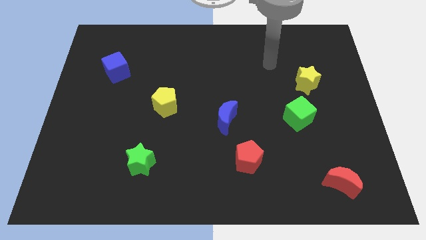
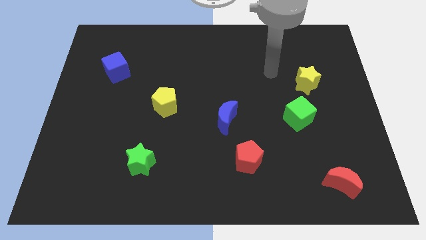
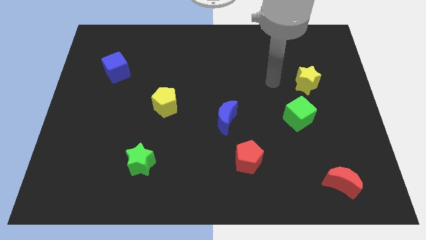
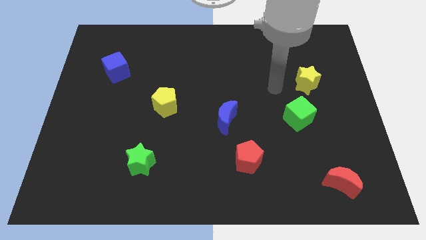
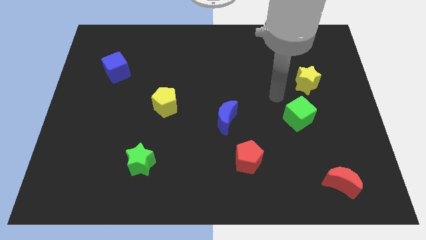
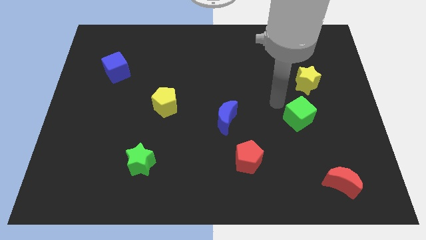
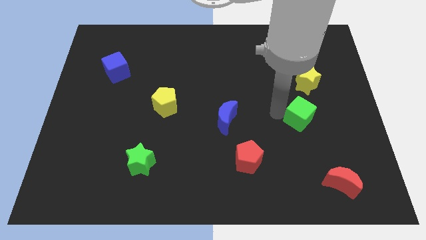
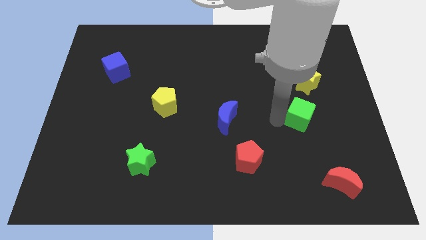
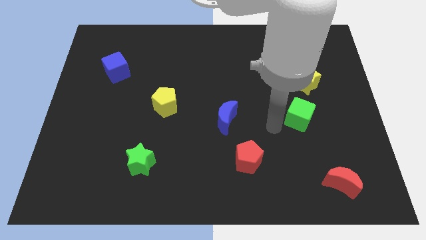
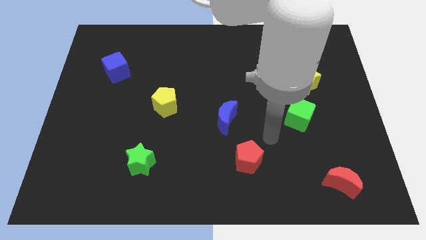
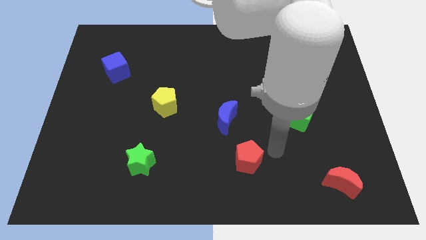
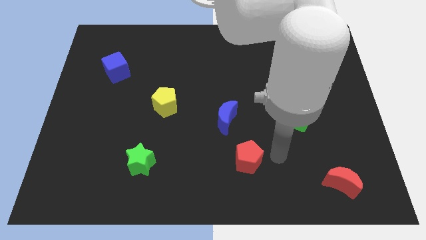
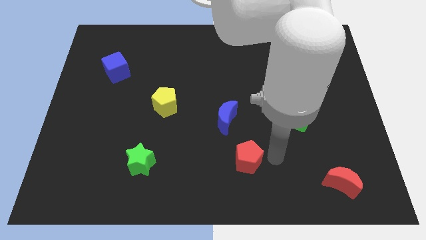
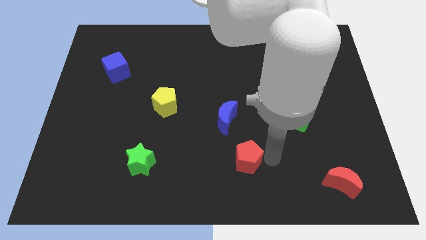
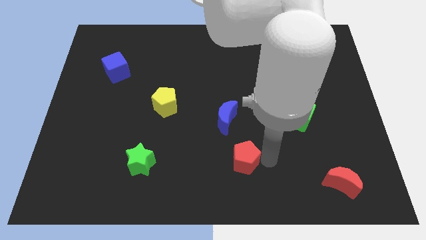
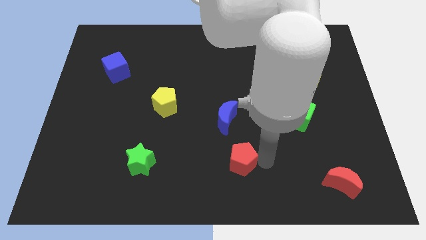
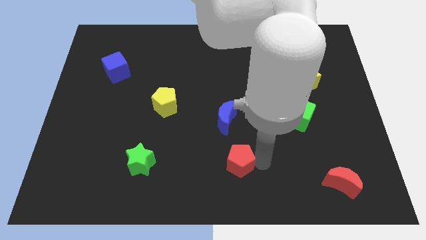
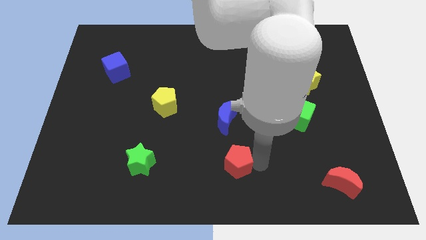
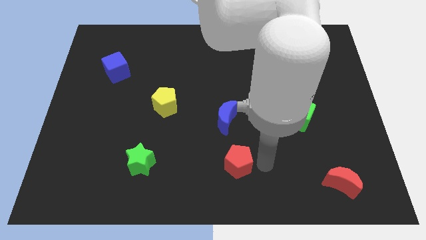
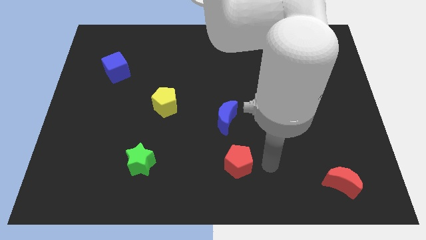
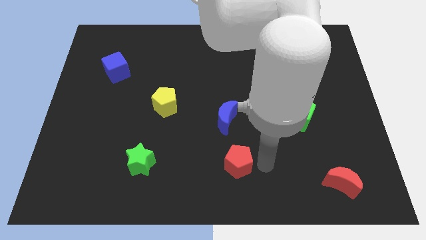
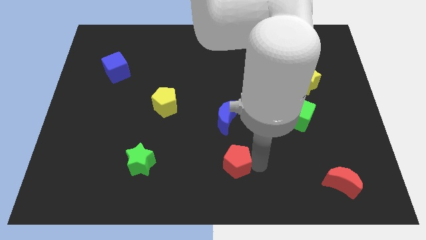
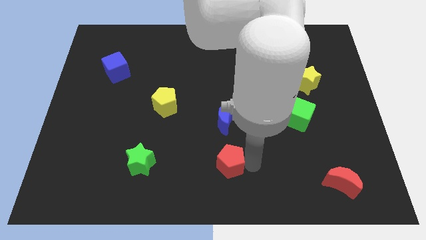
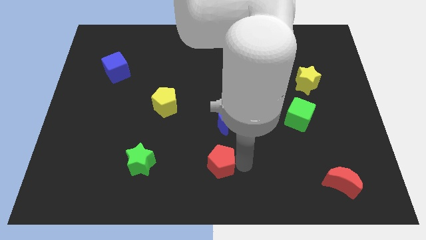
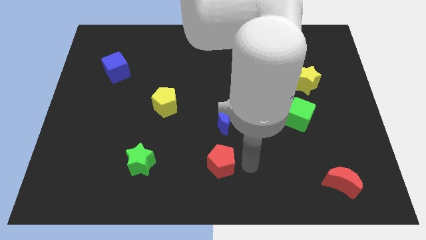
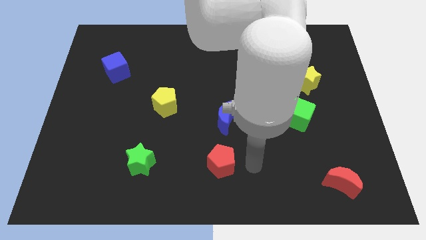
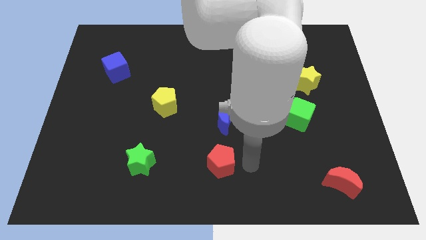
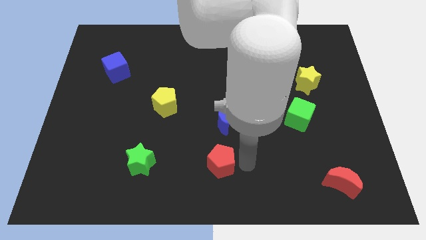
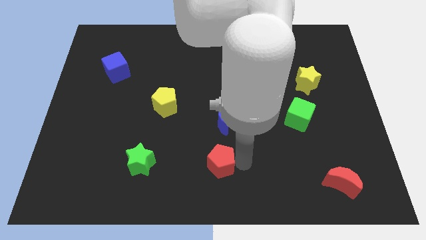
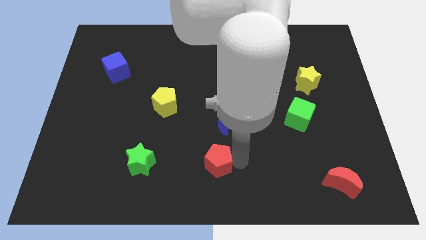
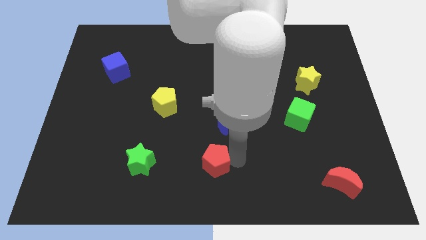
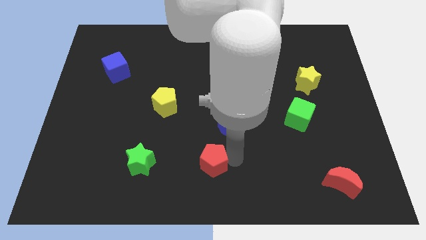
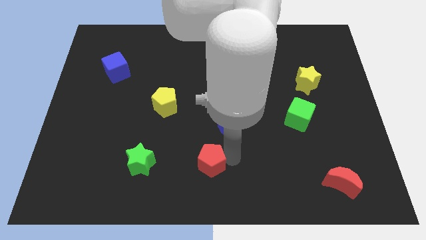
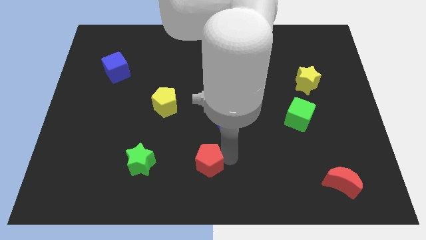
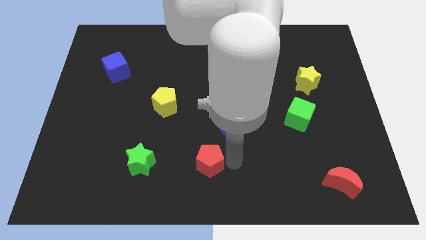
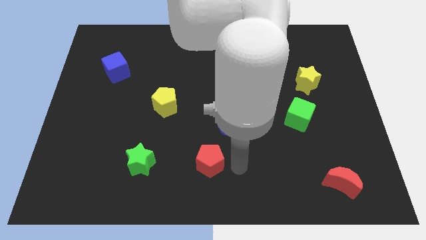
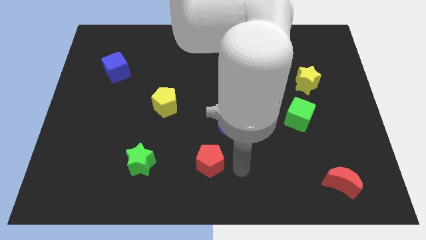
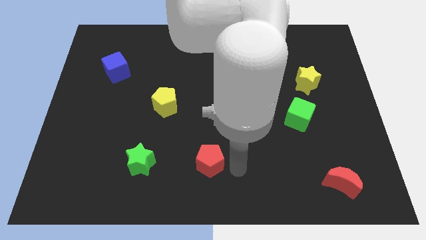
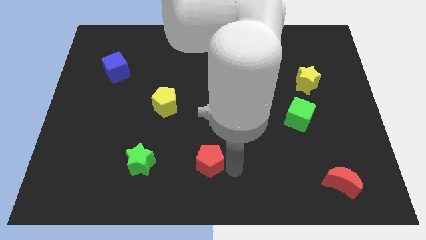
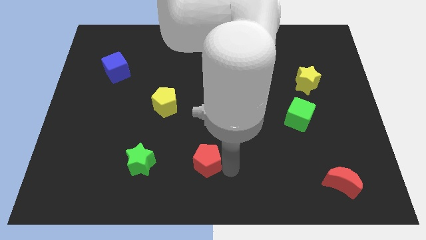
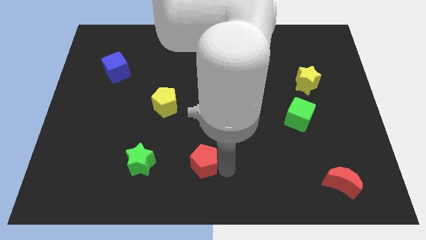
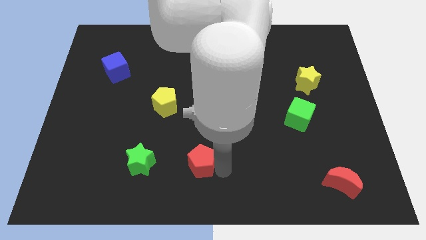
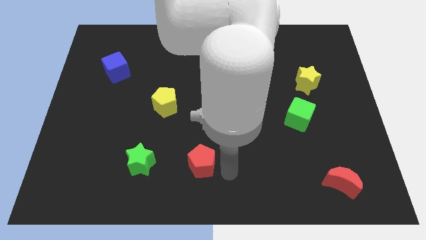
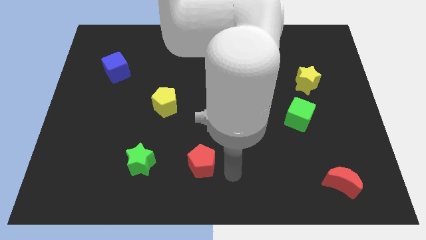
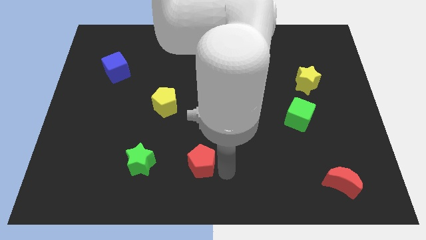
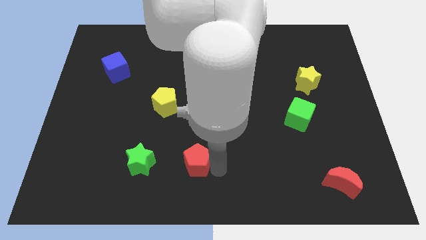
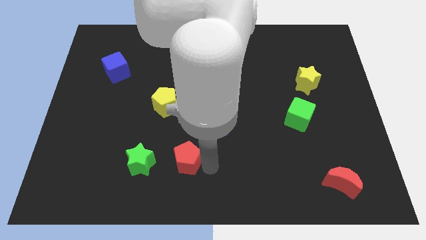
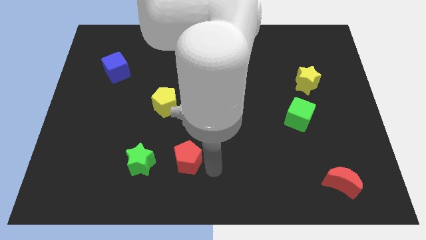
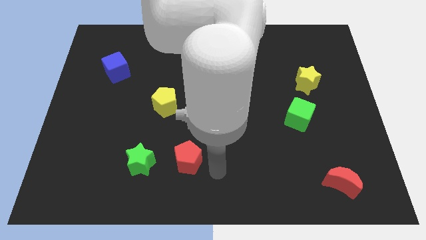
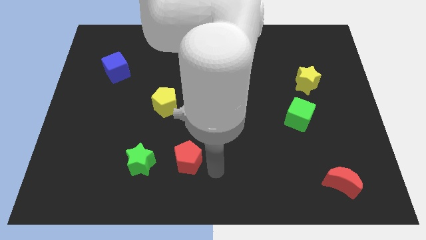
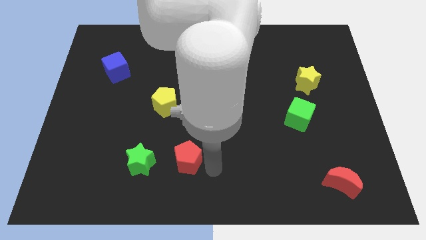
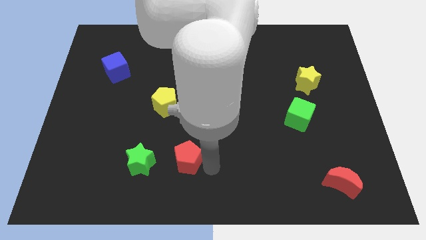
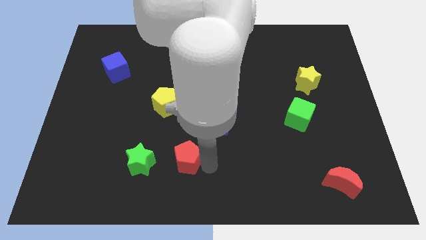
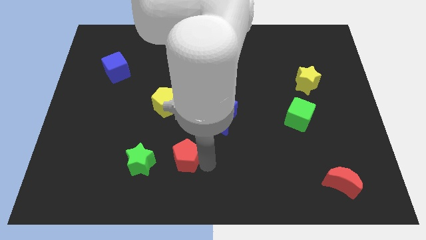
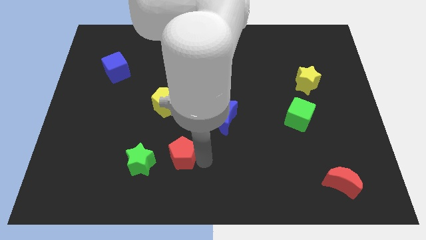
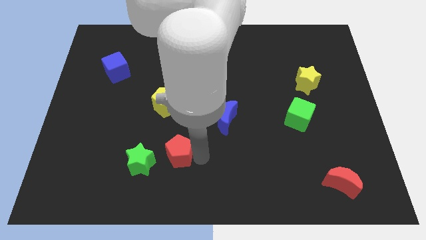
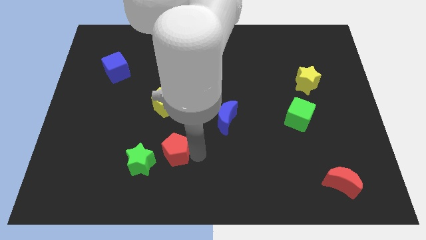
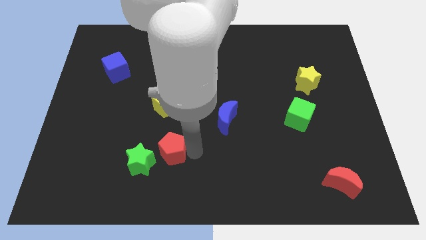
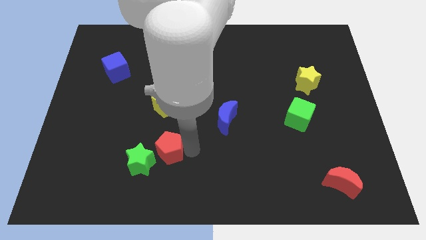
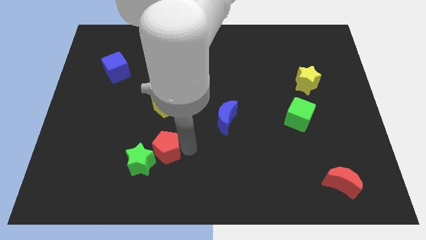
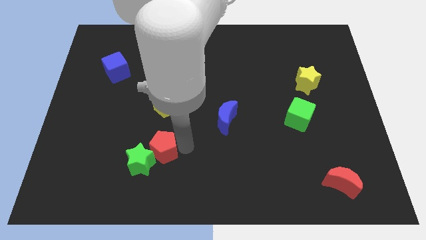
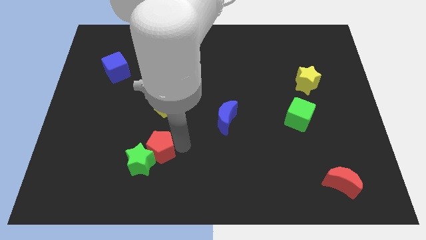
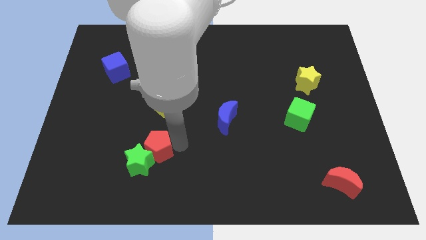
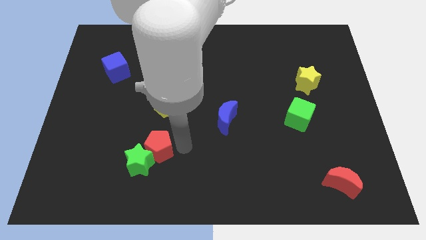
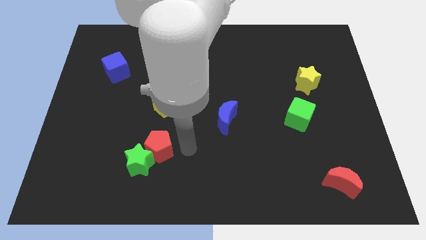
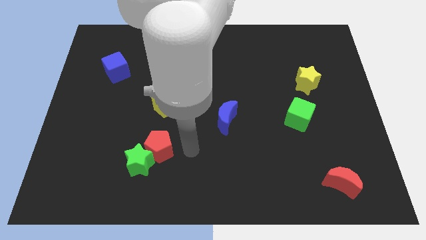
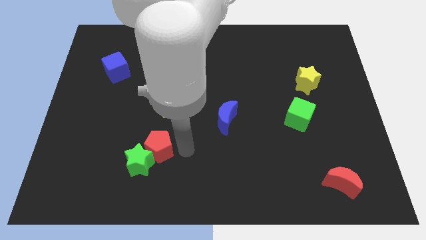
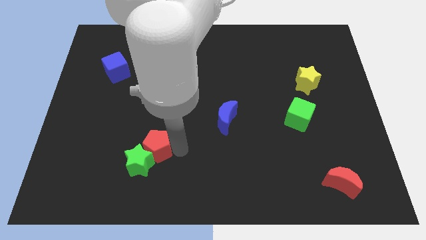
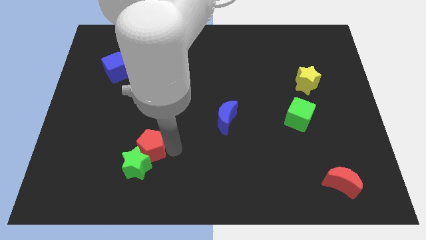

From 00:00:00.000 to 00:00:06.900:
move the red pentagon left

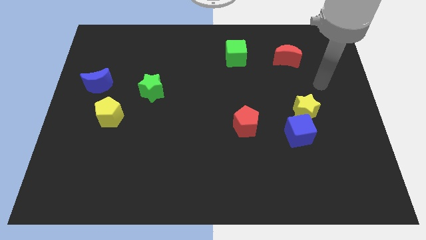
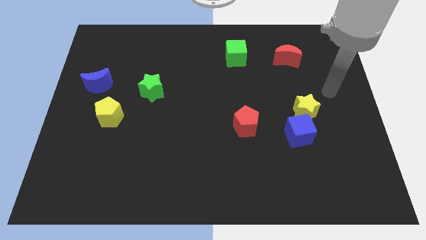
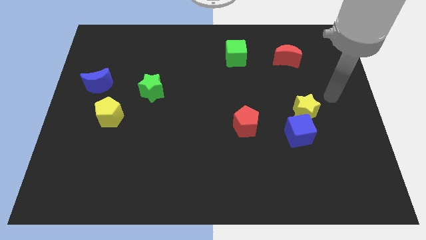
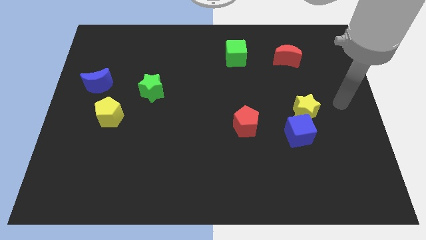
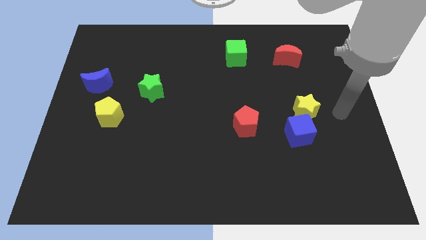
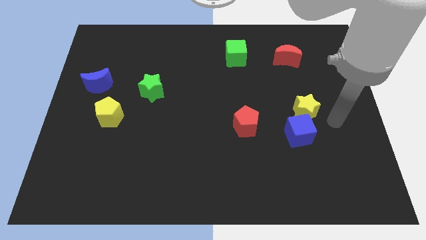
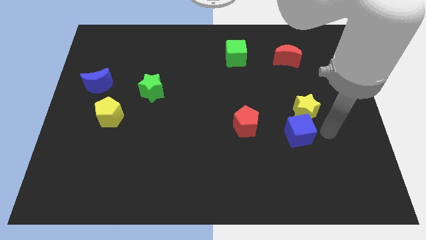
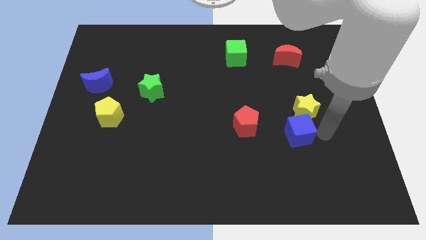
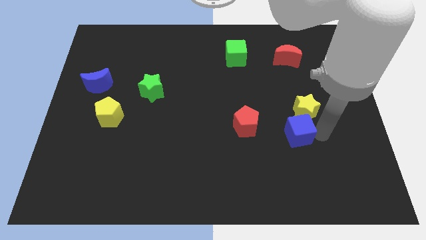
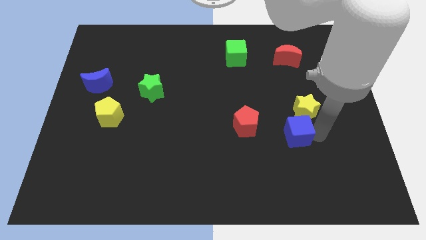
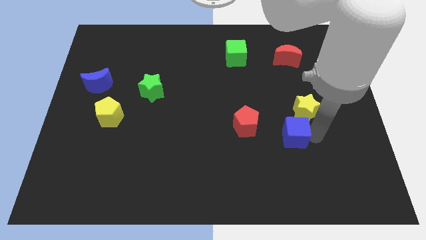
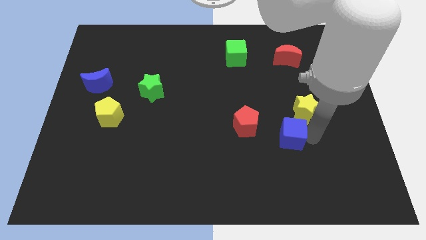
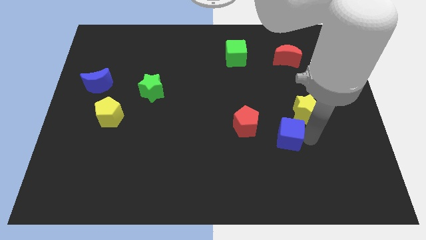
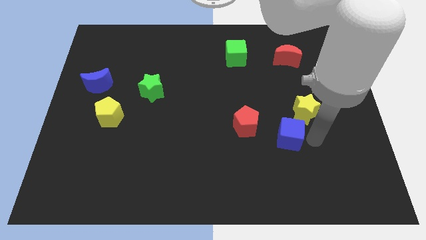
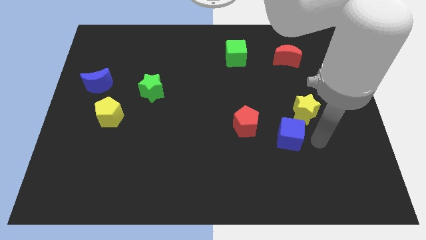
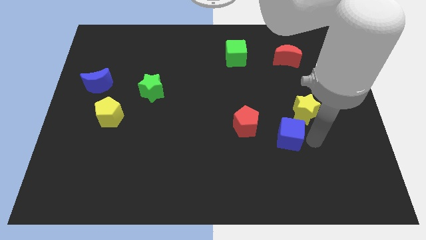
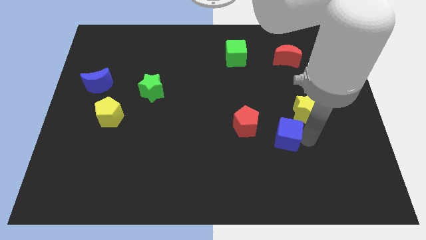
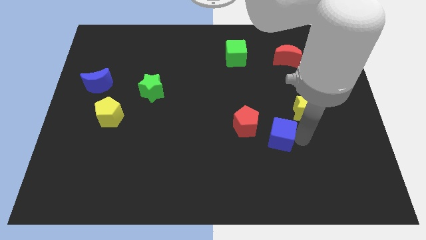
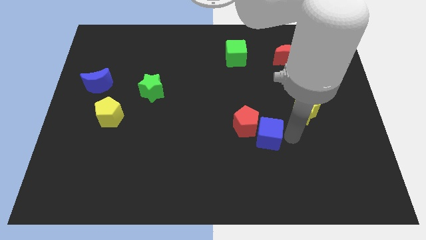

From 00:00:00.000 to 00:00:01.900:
move the blue cube a little left
